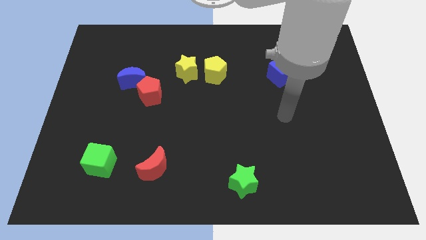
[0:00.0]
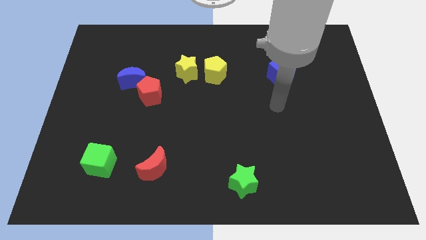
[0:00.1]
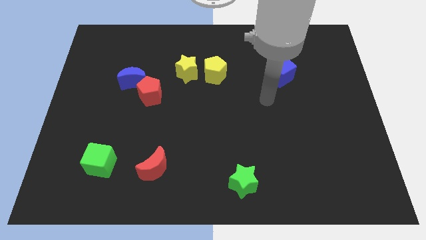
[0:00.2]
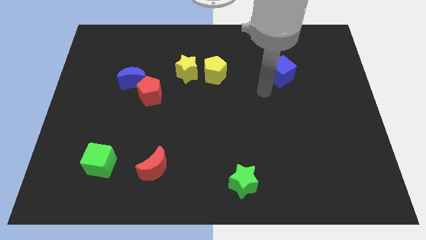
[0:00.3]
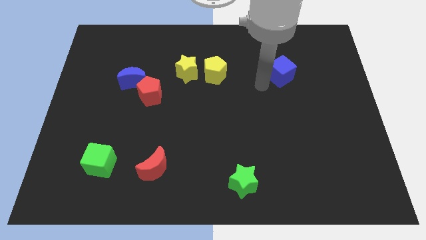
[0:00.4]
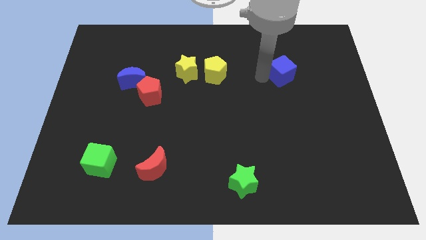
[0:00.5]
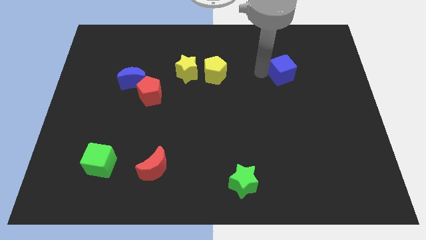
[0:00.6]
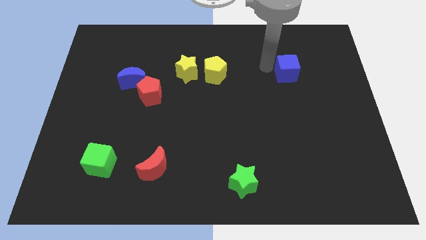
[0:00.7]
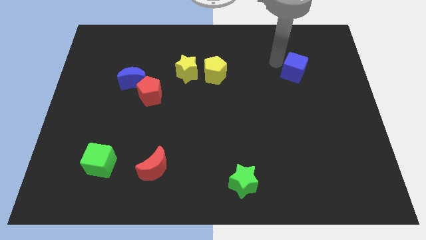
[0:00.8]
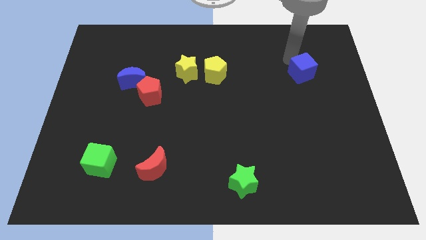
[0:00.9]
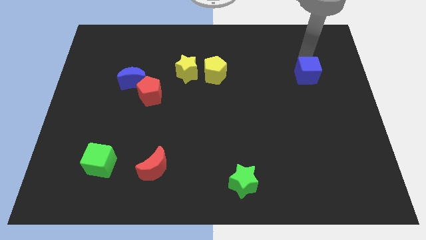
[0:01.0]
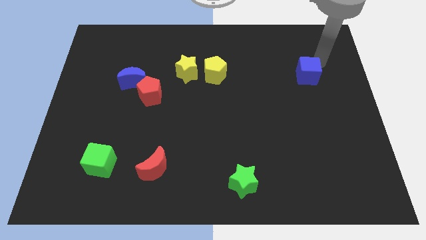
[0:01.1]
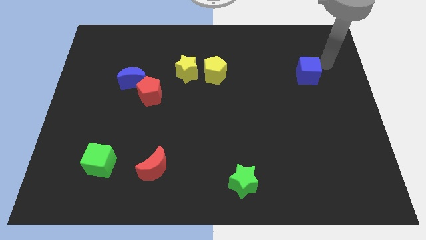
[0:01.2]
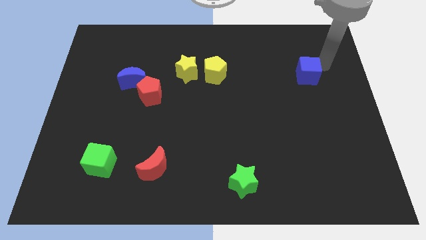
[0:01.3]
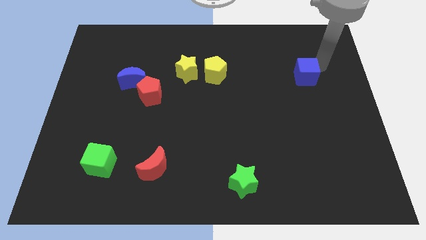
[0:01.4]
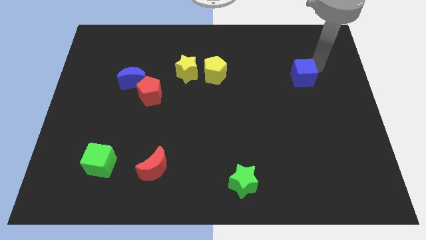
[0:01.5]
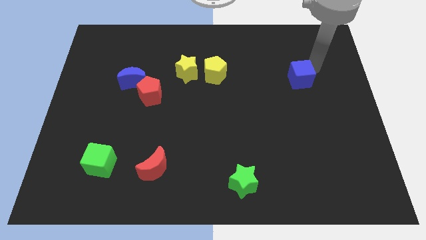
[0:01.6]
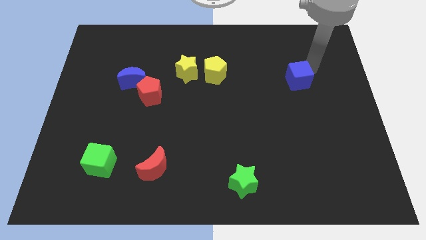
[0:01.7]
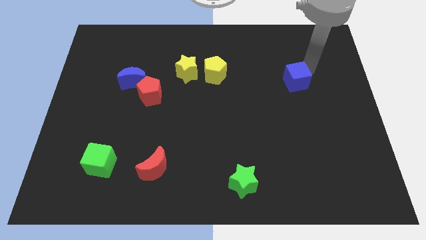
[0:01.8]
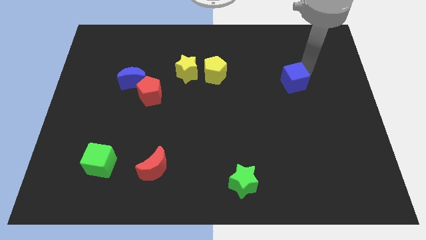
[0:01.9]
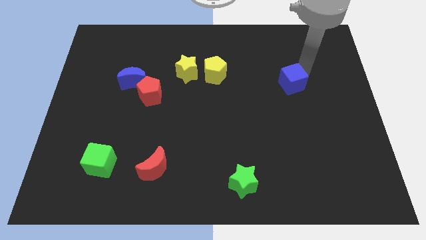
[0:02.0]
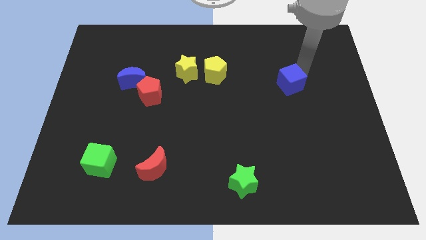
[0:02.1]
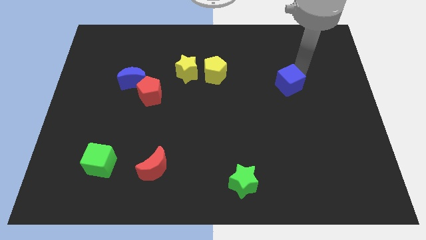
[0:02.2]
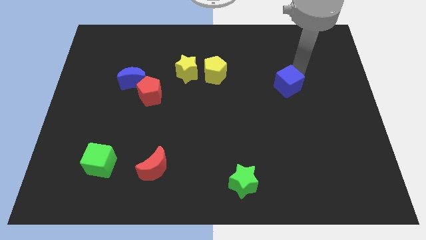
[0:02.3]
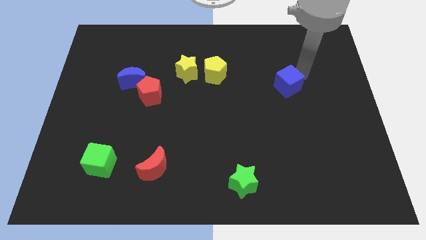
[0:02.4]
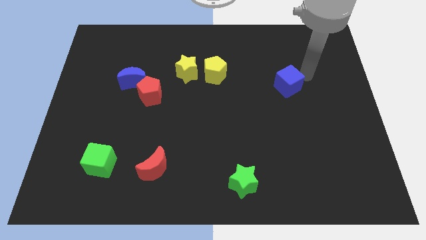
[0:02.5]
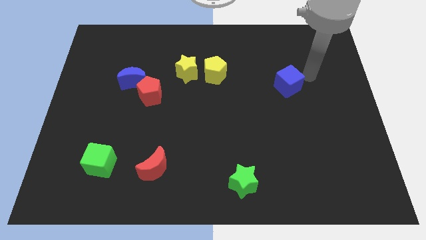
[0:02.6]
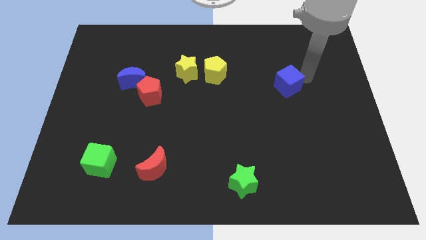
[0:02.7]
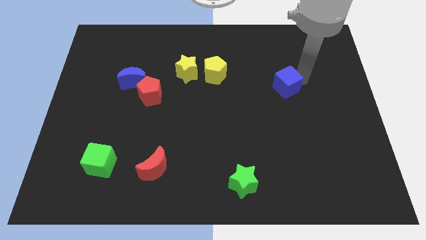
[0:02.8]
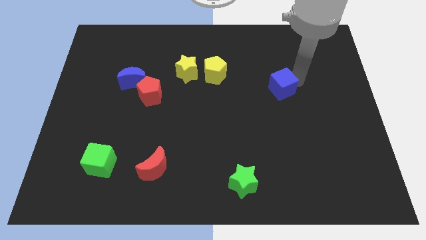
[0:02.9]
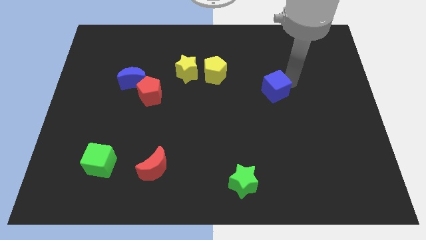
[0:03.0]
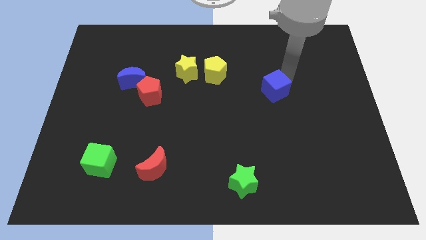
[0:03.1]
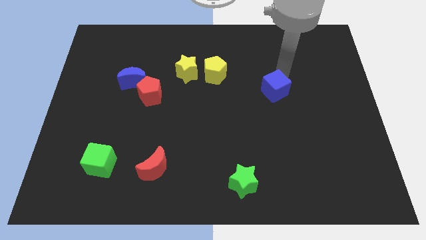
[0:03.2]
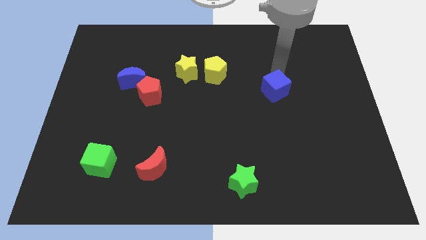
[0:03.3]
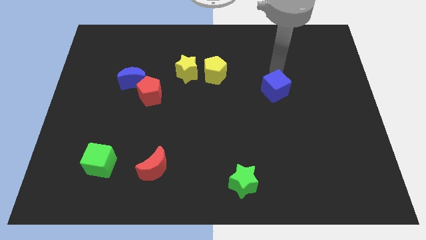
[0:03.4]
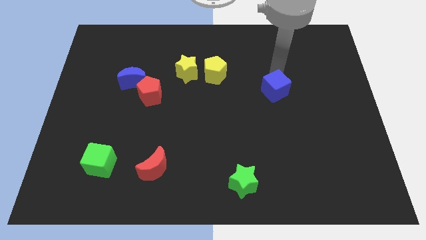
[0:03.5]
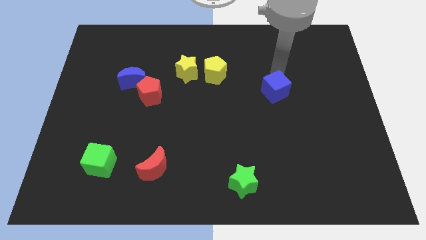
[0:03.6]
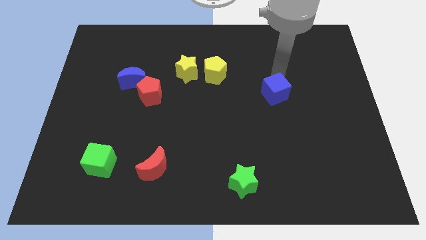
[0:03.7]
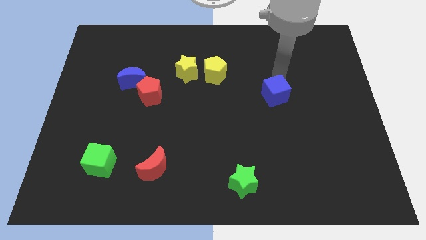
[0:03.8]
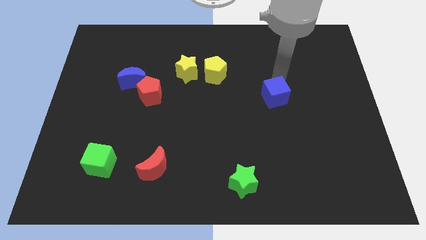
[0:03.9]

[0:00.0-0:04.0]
push the blue cube a little bit down

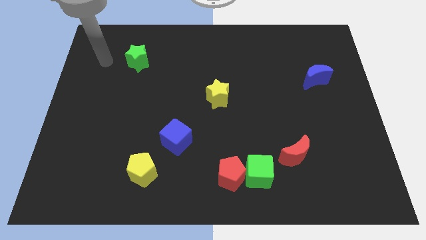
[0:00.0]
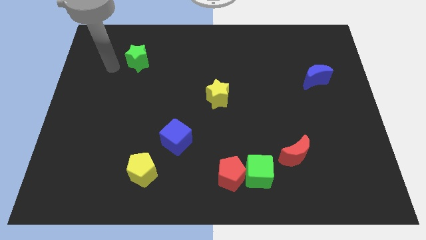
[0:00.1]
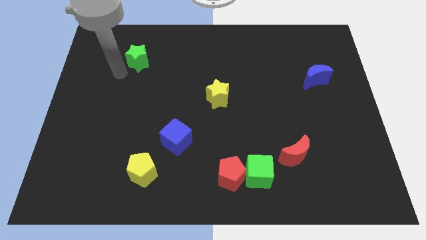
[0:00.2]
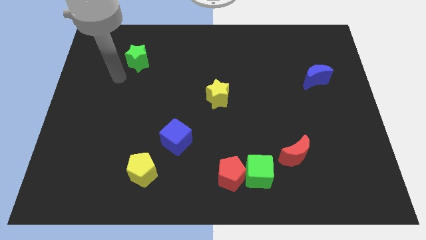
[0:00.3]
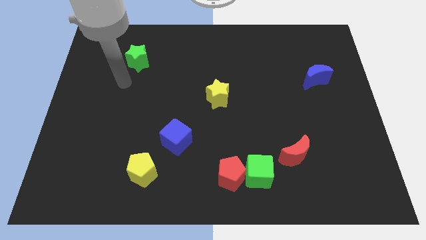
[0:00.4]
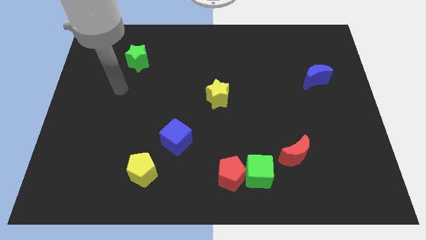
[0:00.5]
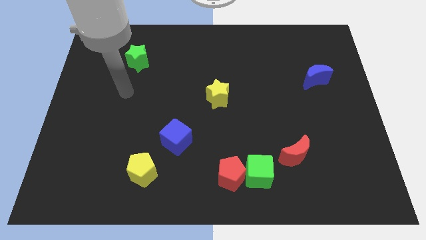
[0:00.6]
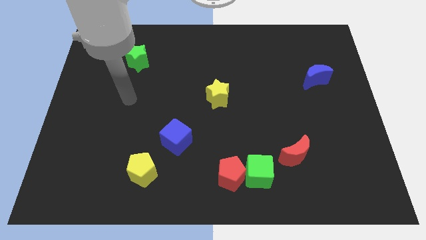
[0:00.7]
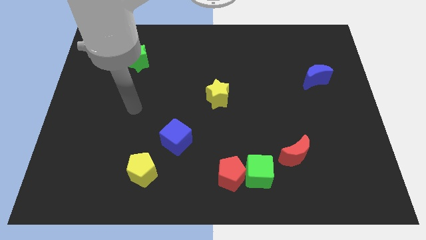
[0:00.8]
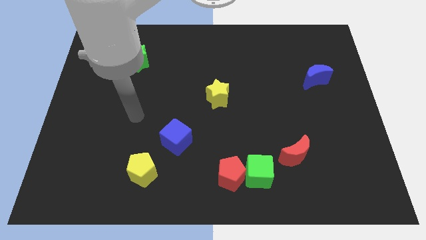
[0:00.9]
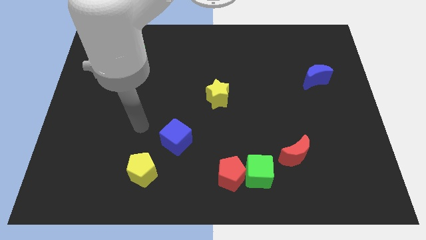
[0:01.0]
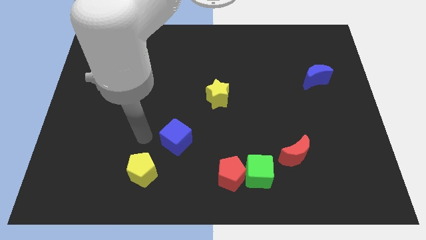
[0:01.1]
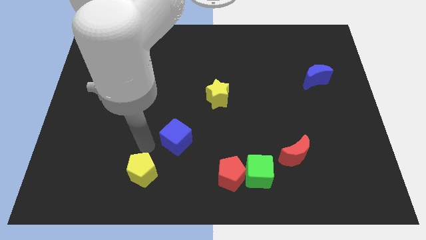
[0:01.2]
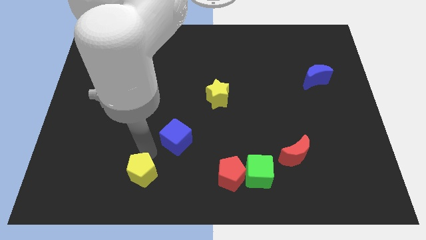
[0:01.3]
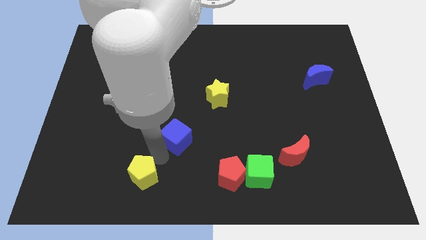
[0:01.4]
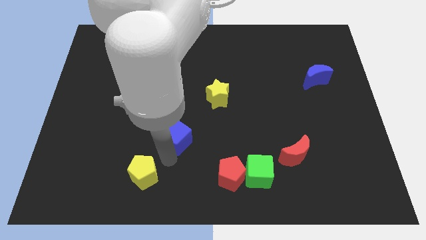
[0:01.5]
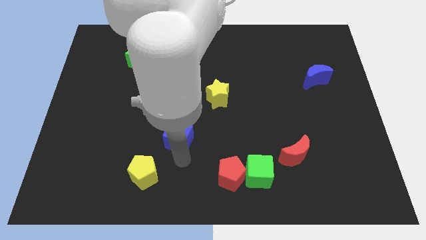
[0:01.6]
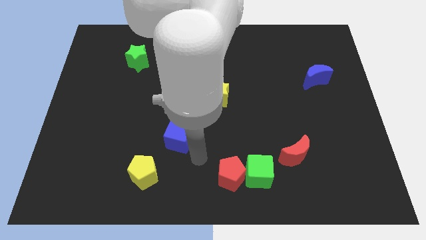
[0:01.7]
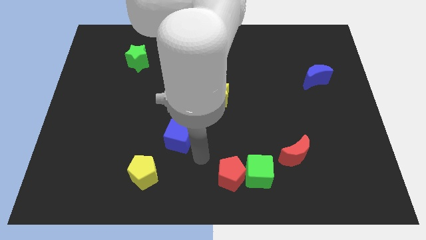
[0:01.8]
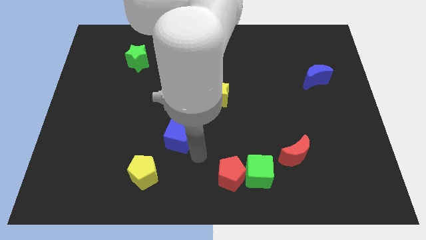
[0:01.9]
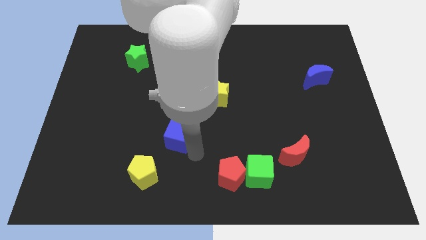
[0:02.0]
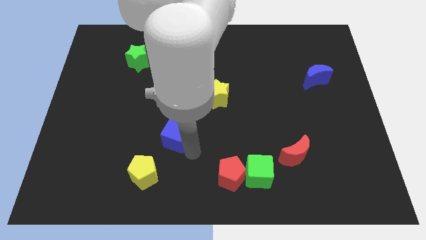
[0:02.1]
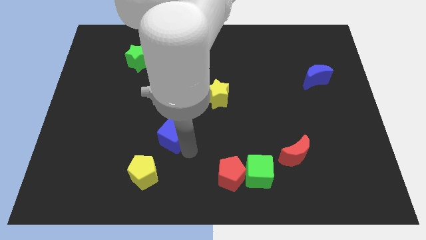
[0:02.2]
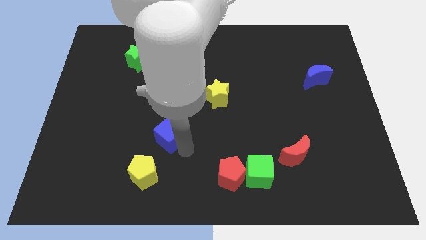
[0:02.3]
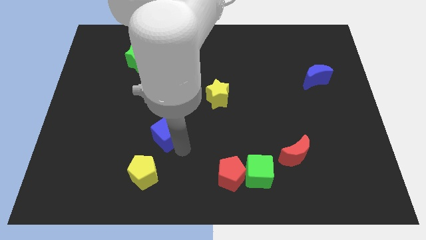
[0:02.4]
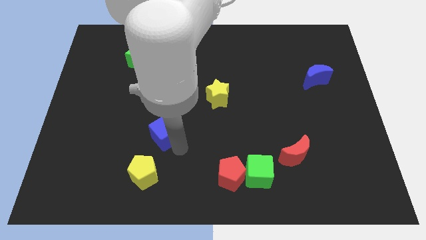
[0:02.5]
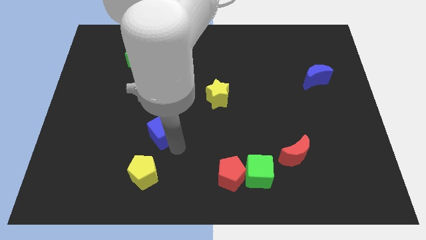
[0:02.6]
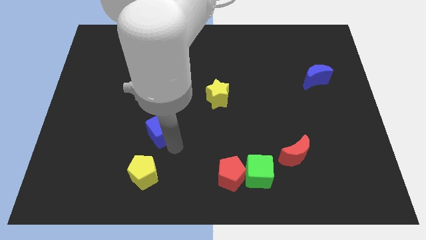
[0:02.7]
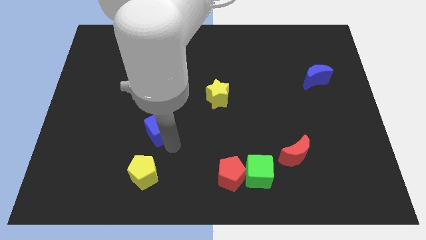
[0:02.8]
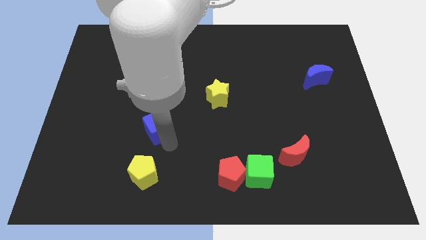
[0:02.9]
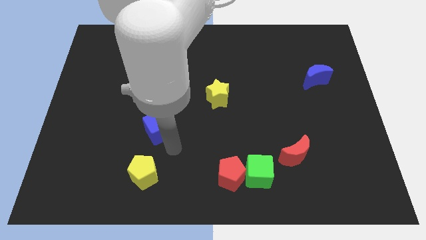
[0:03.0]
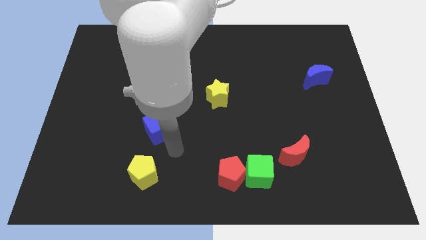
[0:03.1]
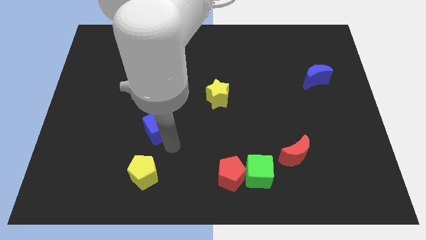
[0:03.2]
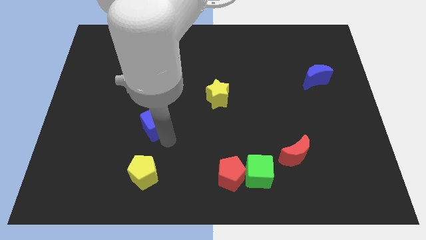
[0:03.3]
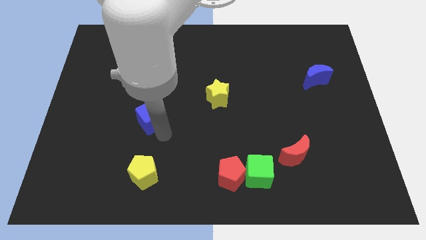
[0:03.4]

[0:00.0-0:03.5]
push the blue cube somewhat upwards and left diagonally

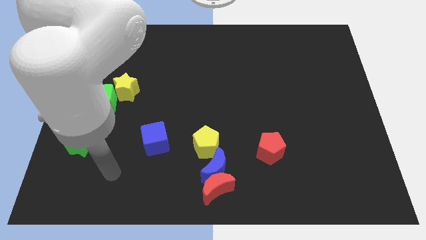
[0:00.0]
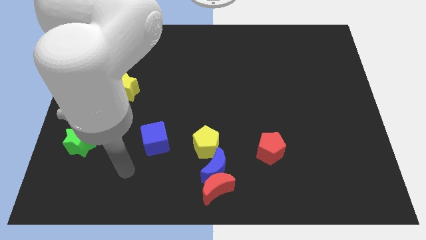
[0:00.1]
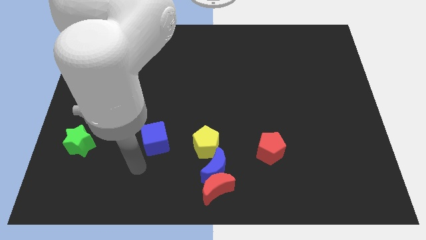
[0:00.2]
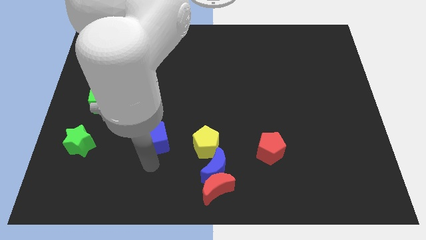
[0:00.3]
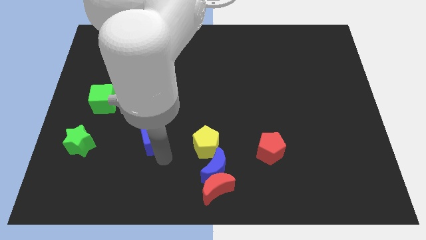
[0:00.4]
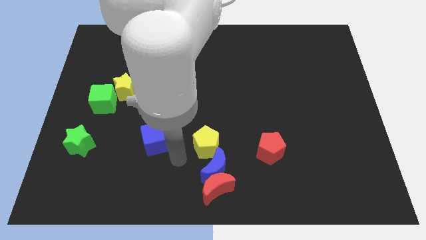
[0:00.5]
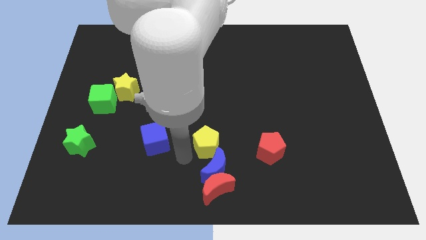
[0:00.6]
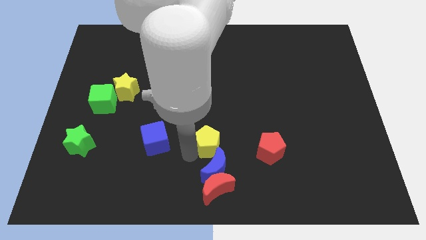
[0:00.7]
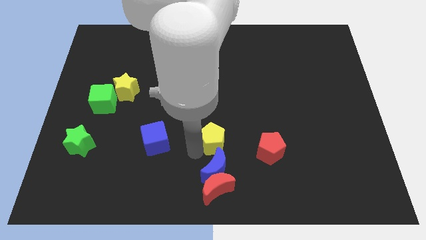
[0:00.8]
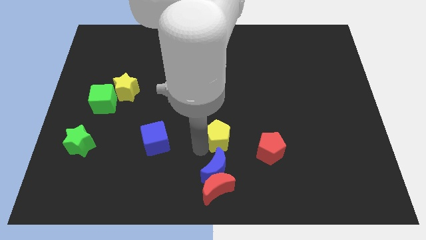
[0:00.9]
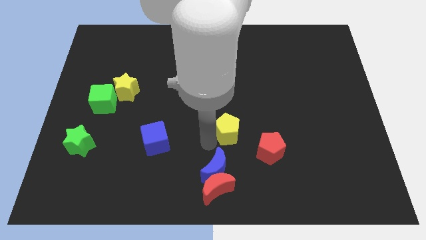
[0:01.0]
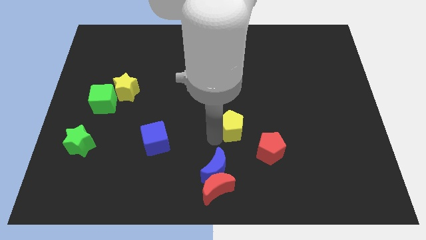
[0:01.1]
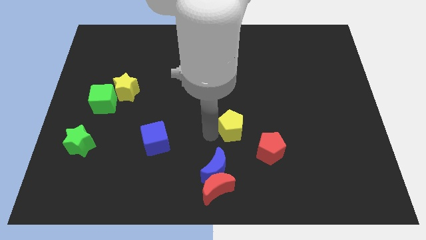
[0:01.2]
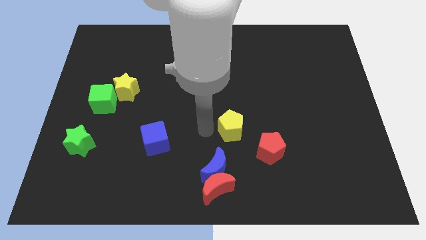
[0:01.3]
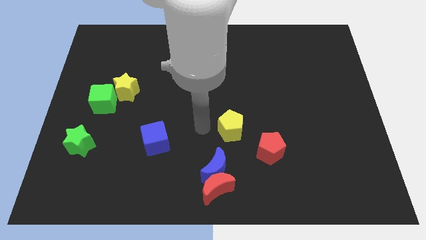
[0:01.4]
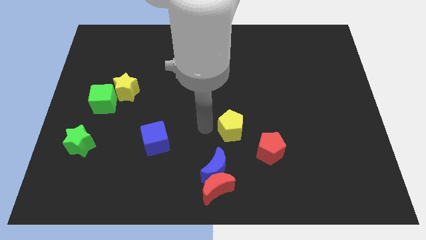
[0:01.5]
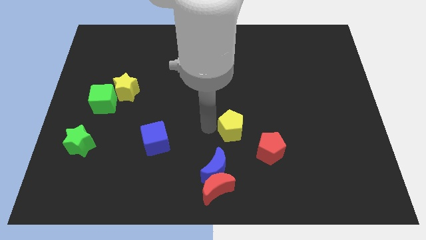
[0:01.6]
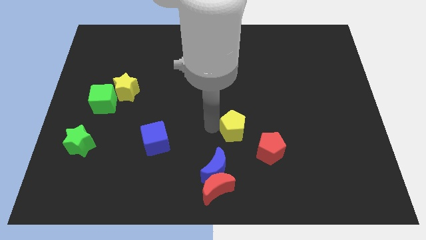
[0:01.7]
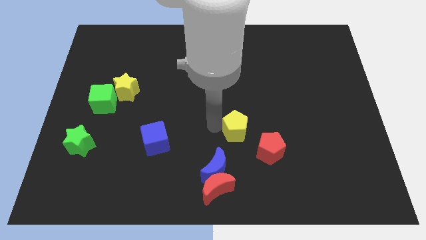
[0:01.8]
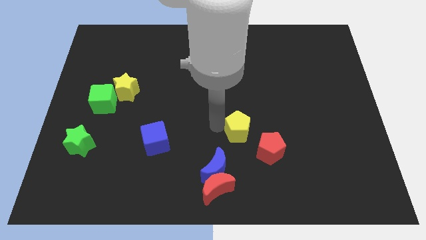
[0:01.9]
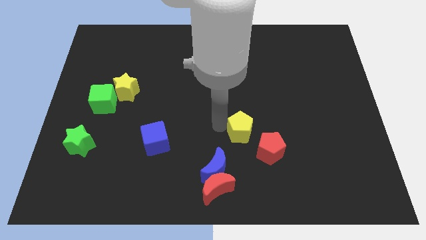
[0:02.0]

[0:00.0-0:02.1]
slightly push the yellow pentagon to the right
